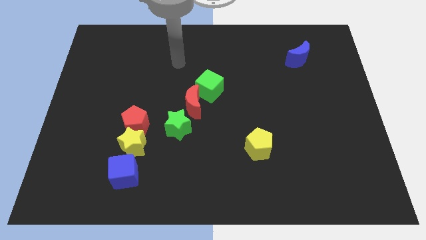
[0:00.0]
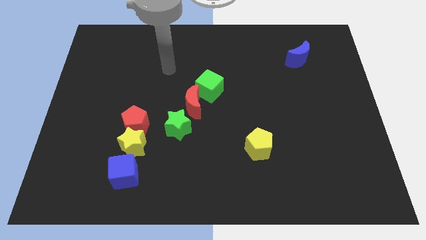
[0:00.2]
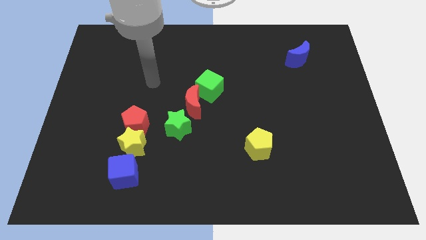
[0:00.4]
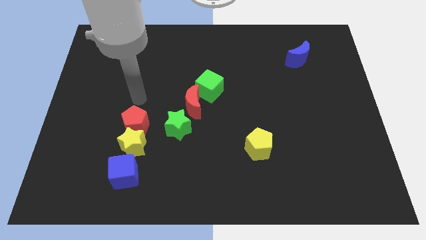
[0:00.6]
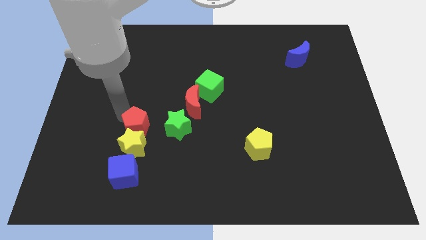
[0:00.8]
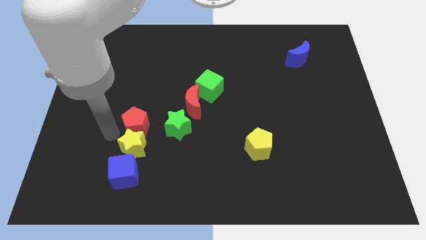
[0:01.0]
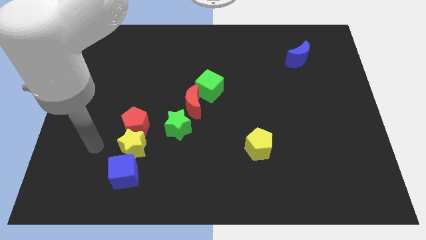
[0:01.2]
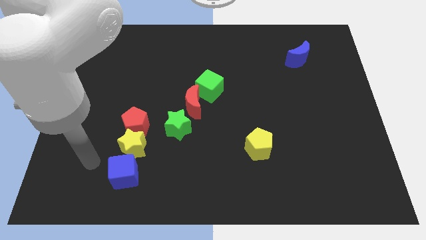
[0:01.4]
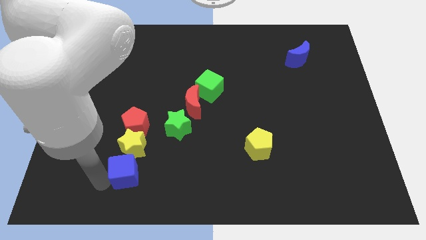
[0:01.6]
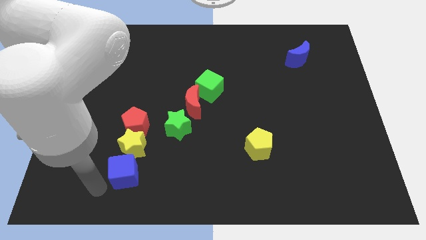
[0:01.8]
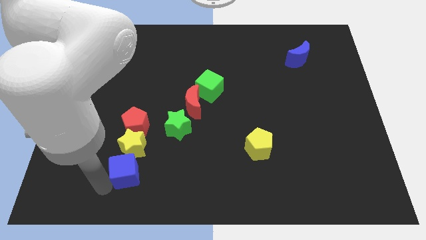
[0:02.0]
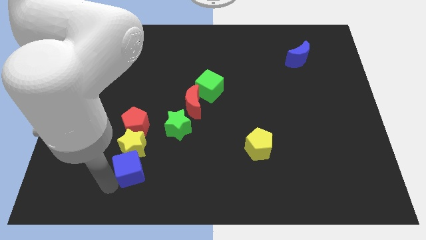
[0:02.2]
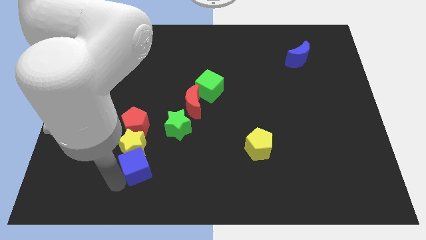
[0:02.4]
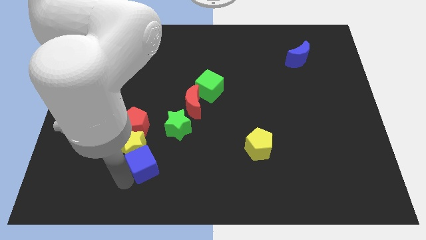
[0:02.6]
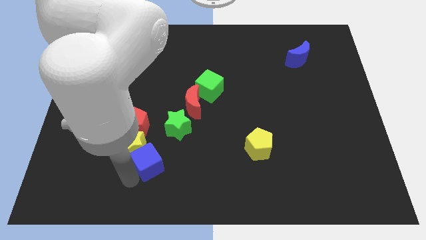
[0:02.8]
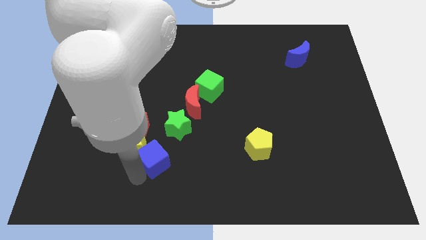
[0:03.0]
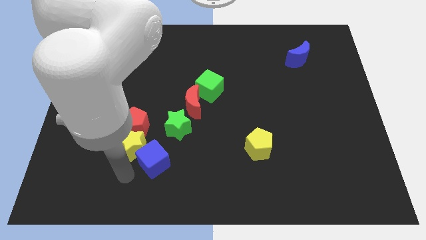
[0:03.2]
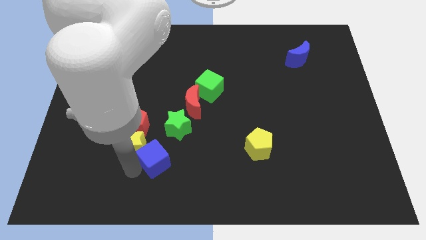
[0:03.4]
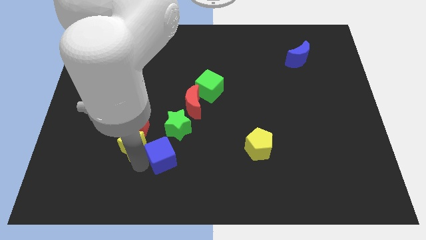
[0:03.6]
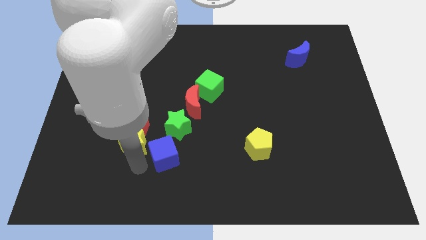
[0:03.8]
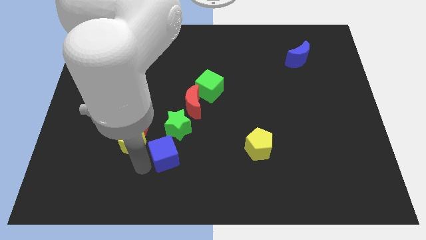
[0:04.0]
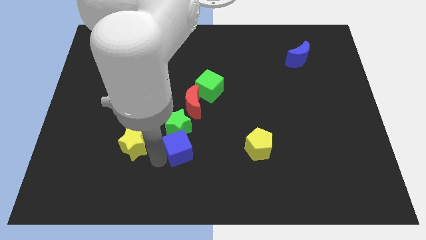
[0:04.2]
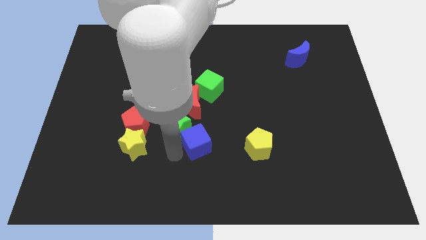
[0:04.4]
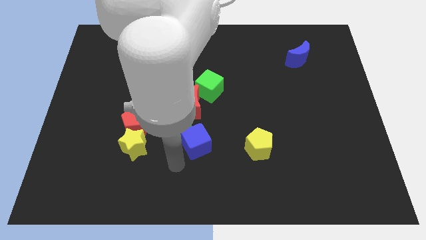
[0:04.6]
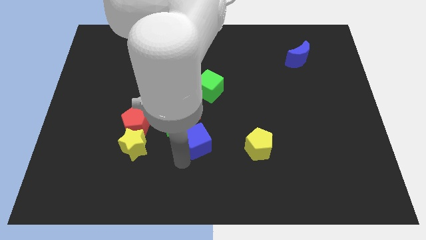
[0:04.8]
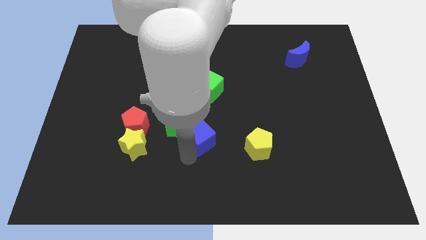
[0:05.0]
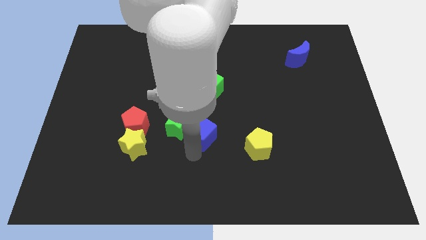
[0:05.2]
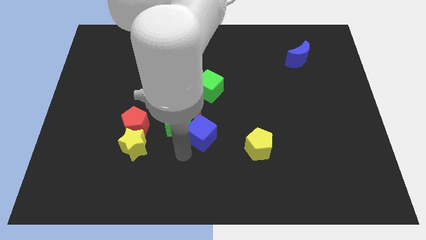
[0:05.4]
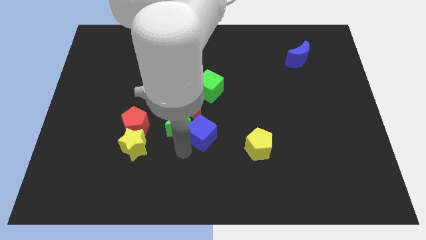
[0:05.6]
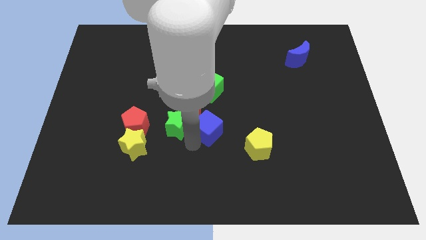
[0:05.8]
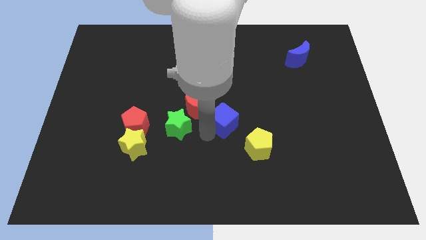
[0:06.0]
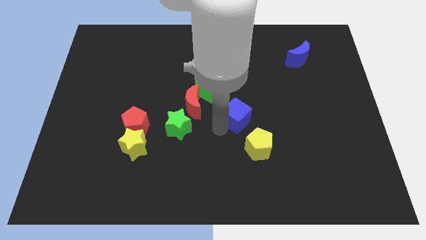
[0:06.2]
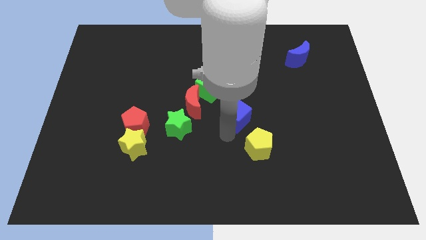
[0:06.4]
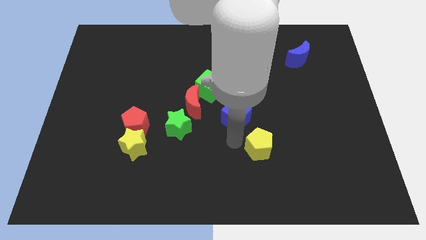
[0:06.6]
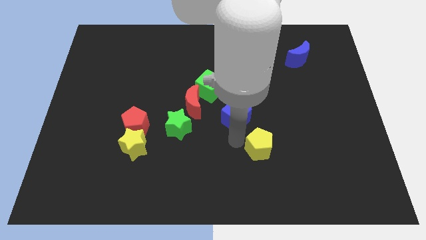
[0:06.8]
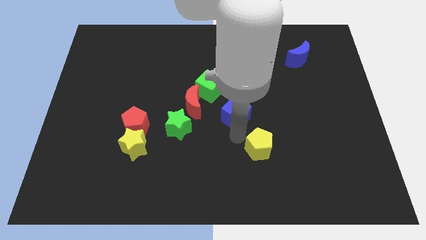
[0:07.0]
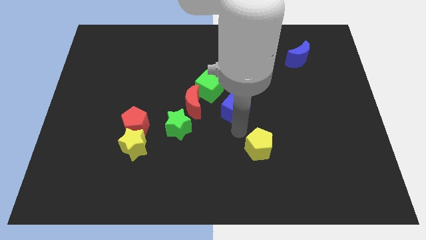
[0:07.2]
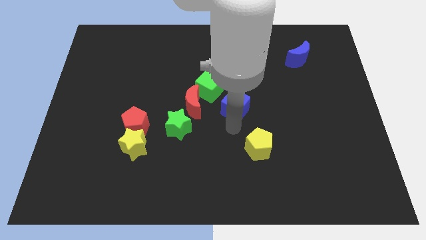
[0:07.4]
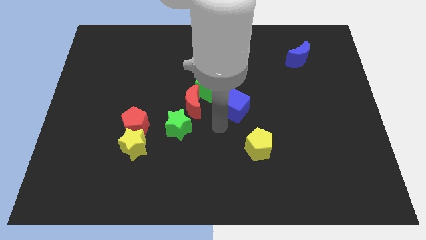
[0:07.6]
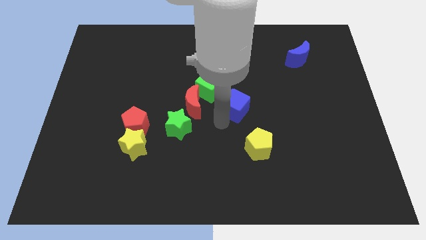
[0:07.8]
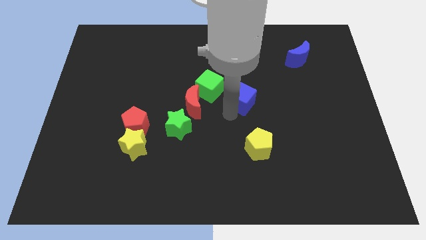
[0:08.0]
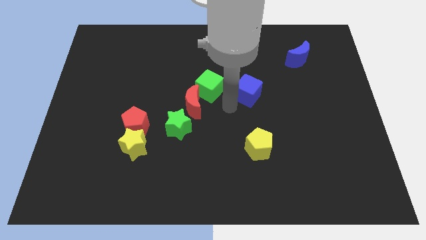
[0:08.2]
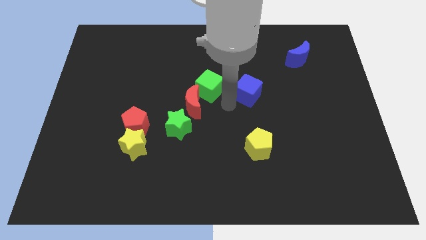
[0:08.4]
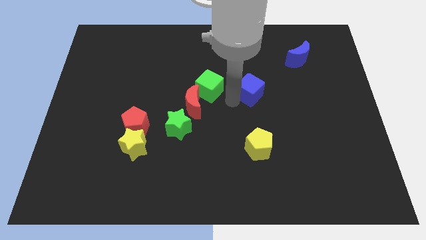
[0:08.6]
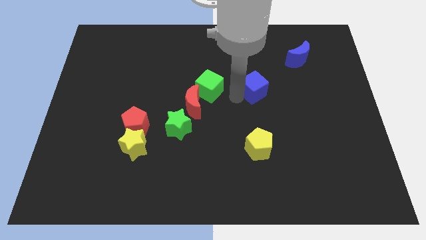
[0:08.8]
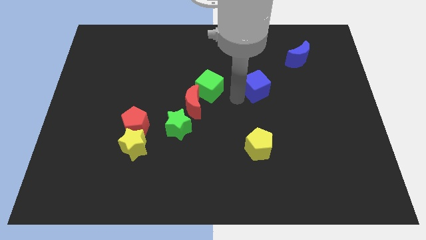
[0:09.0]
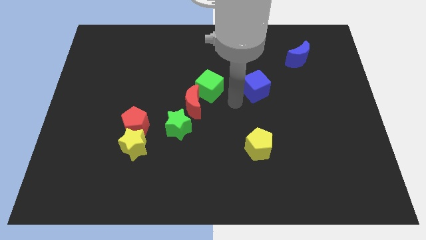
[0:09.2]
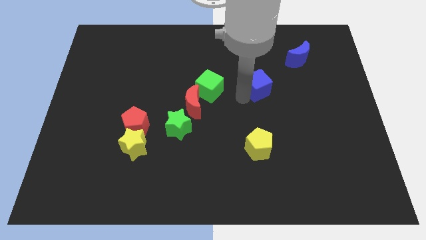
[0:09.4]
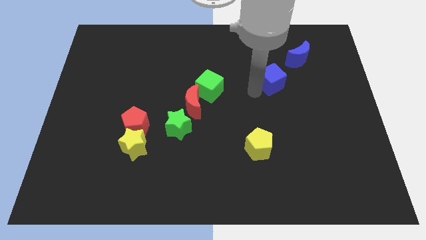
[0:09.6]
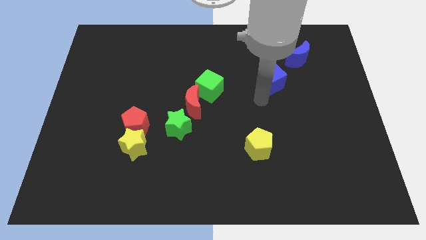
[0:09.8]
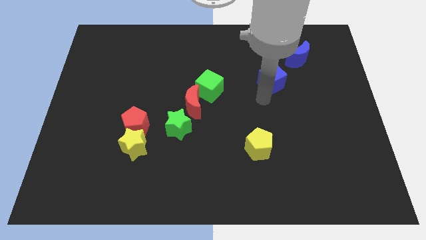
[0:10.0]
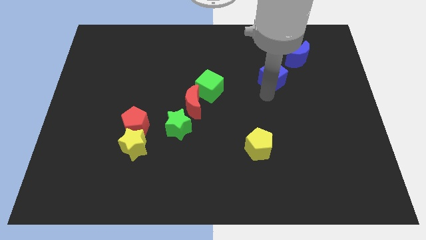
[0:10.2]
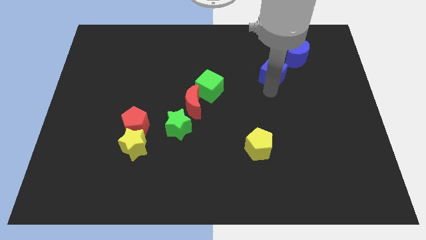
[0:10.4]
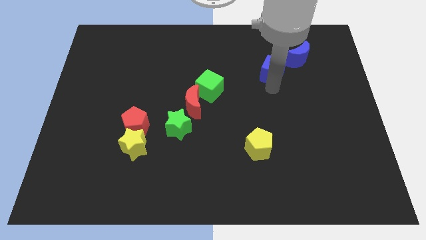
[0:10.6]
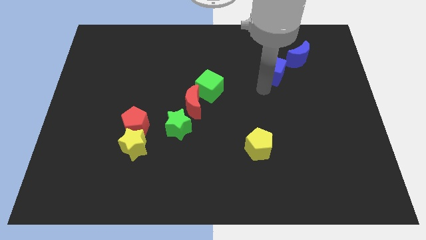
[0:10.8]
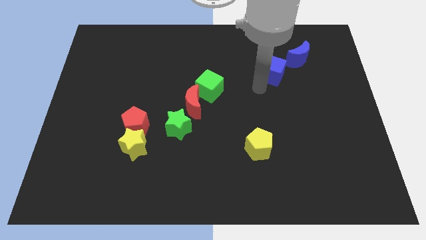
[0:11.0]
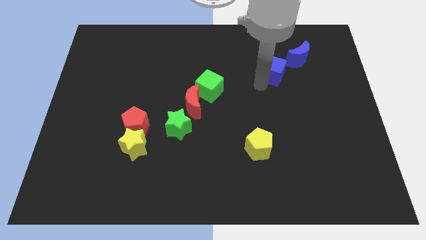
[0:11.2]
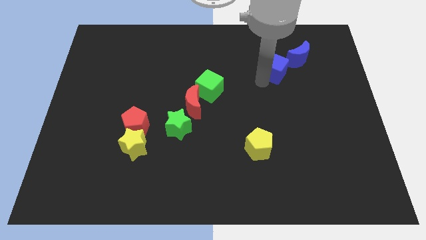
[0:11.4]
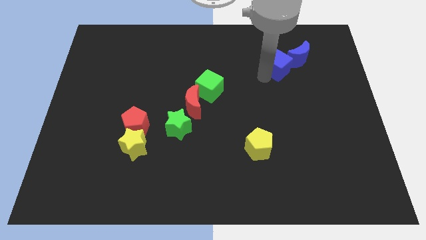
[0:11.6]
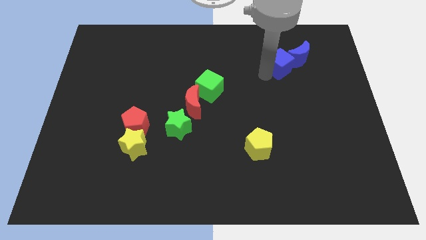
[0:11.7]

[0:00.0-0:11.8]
move the blue cube close to the blue moon

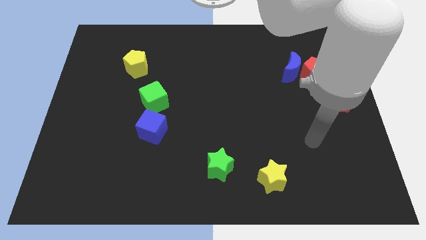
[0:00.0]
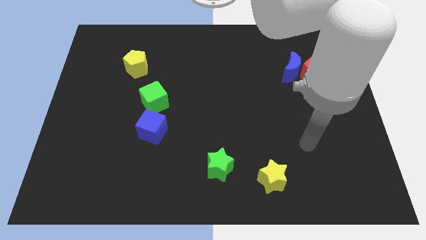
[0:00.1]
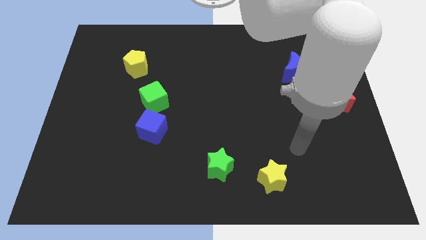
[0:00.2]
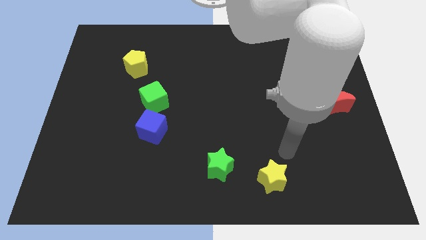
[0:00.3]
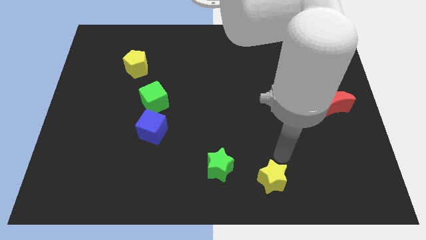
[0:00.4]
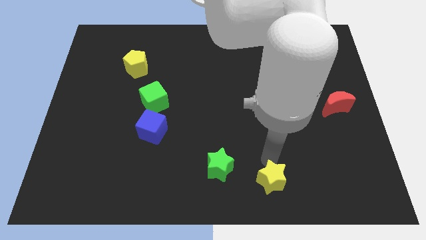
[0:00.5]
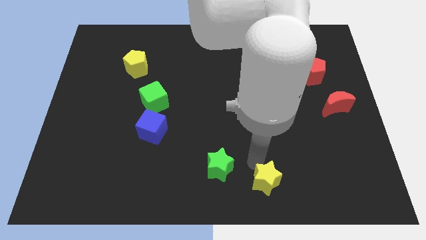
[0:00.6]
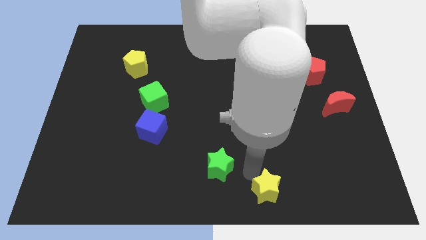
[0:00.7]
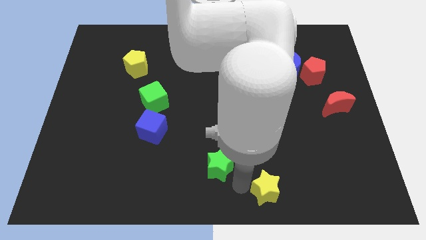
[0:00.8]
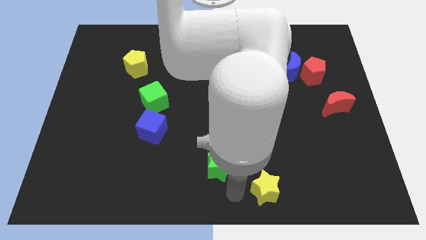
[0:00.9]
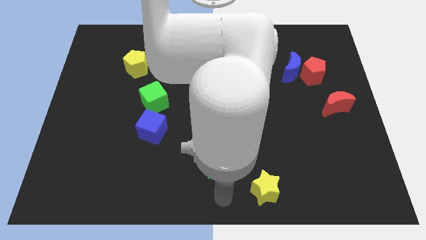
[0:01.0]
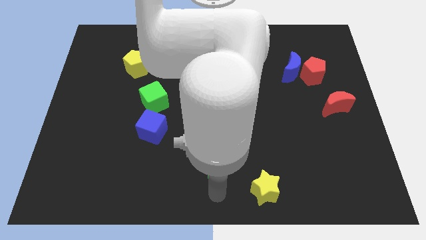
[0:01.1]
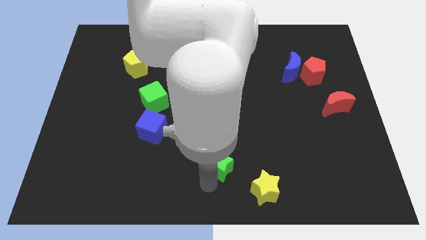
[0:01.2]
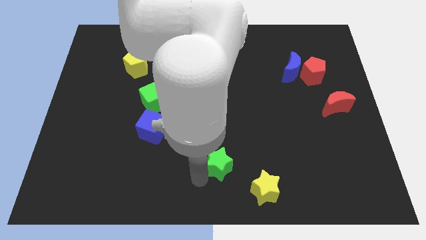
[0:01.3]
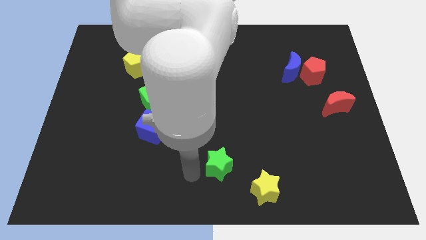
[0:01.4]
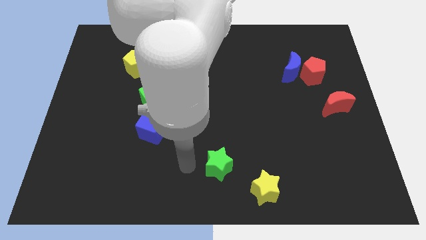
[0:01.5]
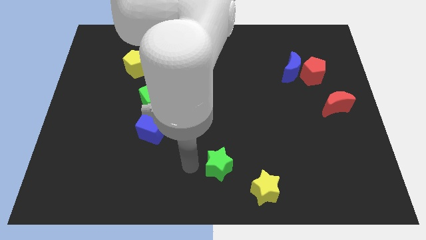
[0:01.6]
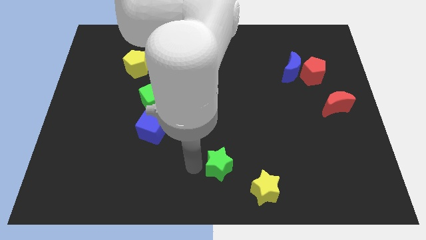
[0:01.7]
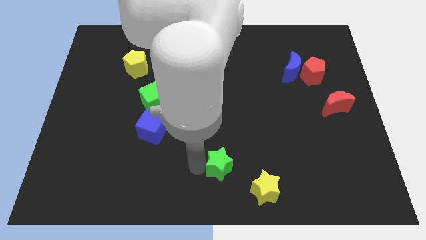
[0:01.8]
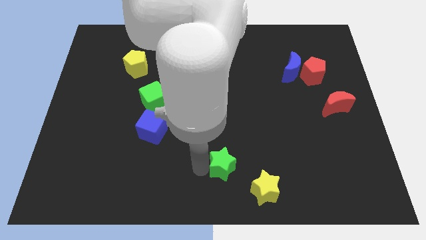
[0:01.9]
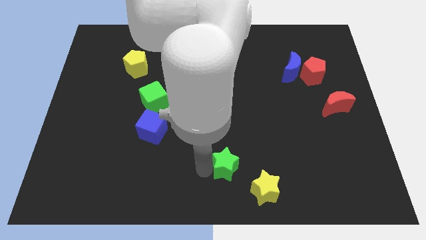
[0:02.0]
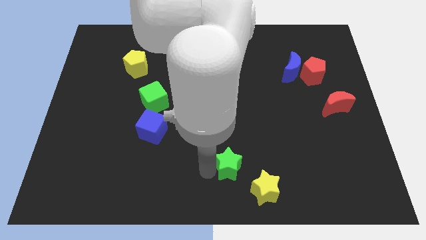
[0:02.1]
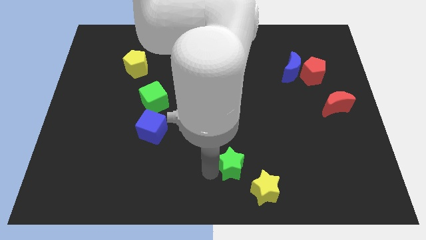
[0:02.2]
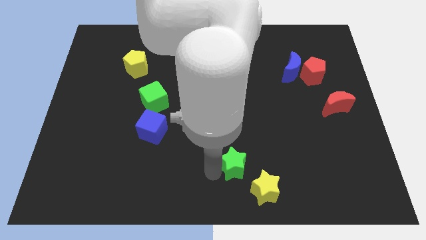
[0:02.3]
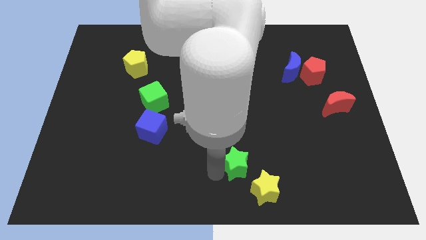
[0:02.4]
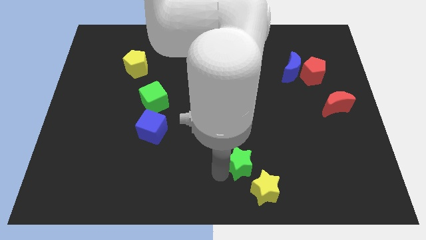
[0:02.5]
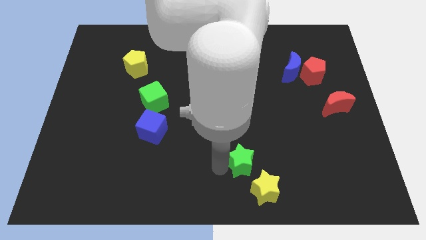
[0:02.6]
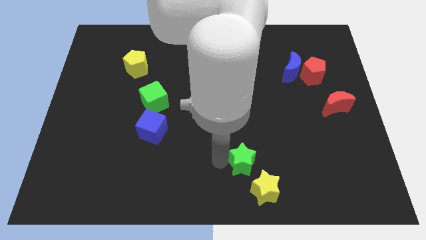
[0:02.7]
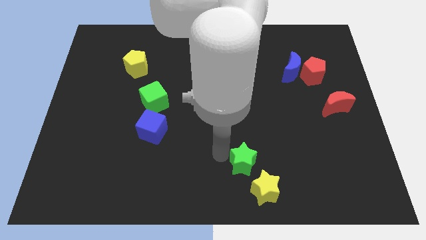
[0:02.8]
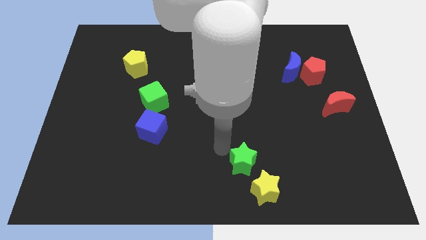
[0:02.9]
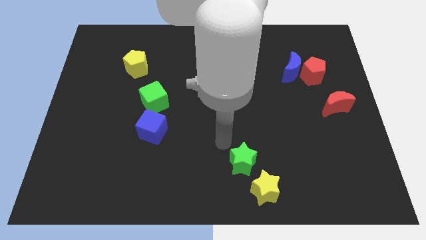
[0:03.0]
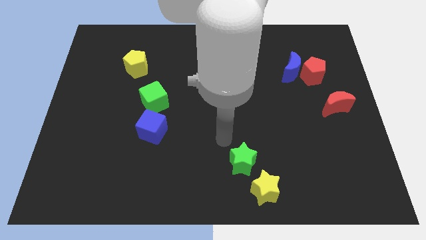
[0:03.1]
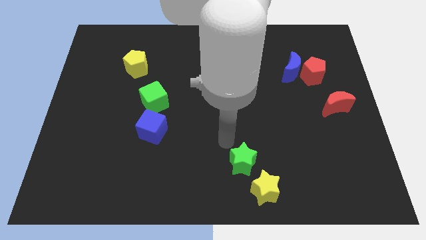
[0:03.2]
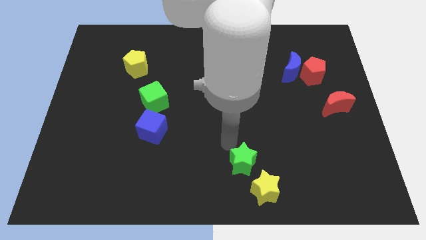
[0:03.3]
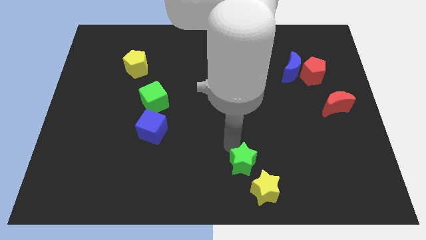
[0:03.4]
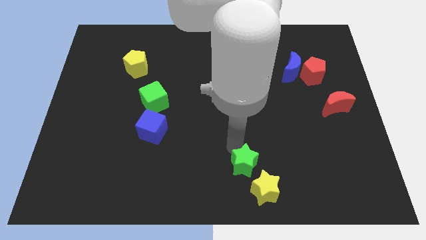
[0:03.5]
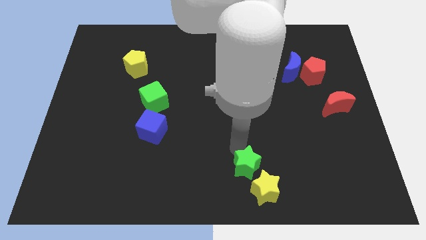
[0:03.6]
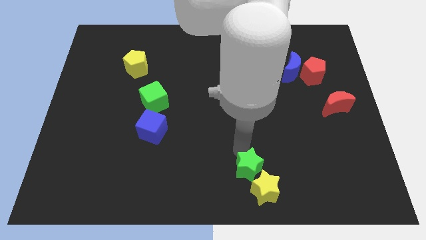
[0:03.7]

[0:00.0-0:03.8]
push the green star to the yellow star
